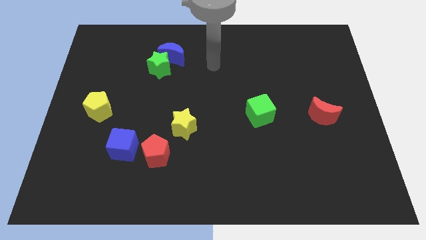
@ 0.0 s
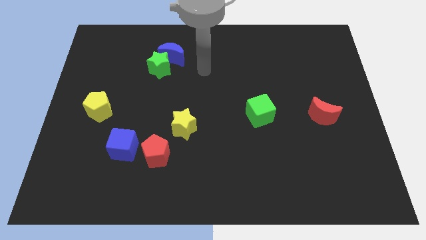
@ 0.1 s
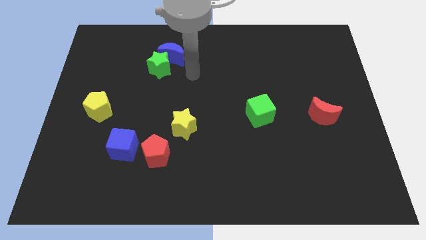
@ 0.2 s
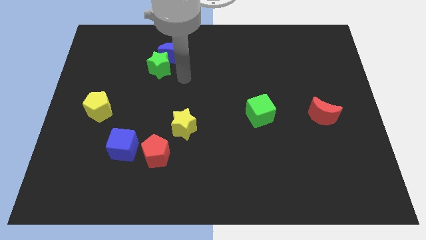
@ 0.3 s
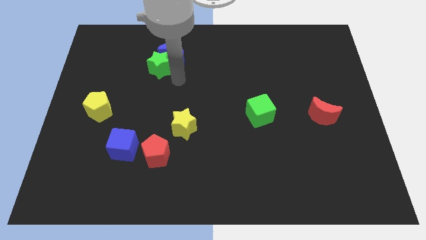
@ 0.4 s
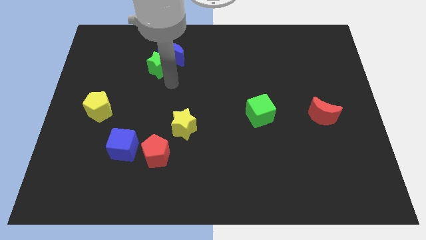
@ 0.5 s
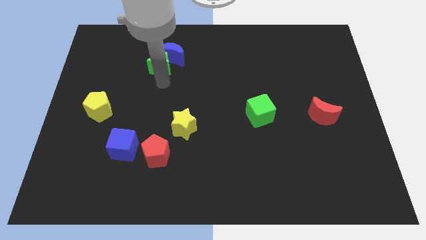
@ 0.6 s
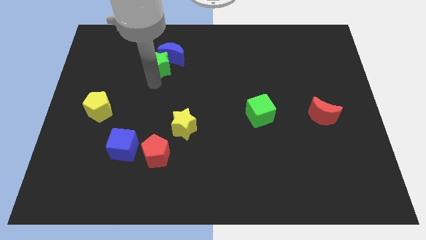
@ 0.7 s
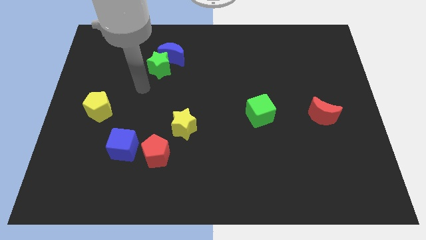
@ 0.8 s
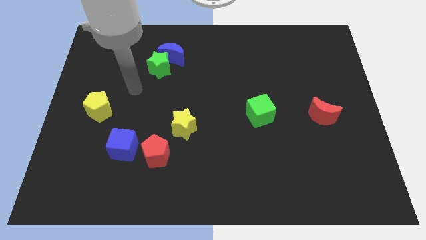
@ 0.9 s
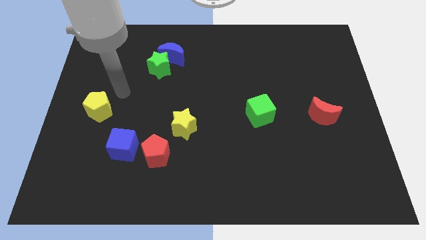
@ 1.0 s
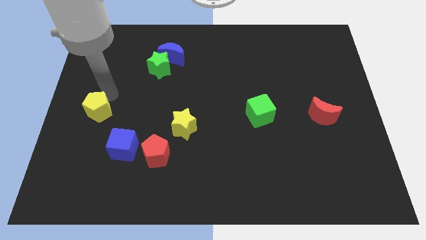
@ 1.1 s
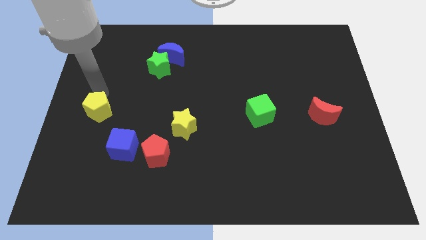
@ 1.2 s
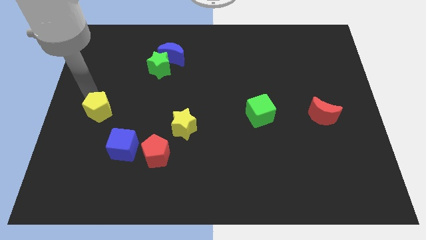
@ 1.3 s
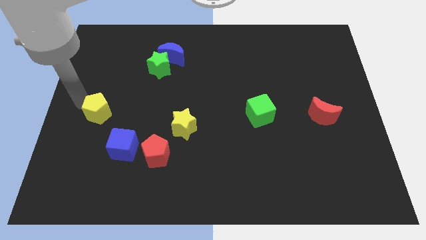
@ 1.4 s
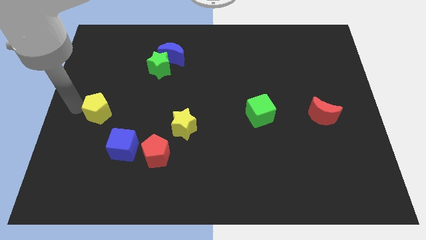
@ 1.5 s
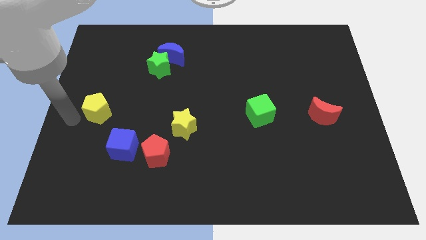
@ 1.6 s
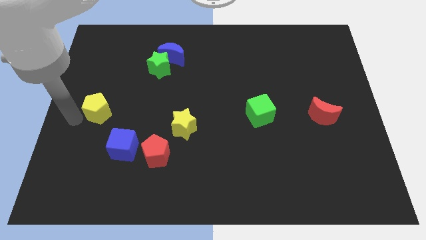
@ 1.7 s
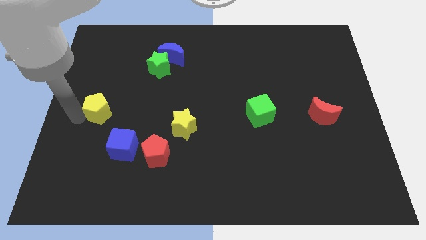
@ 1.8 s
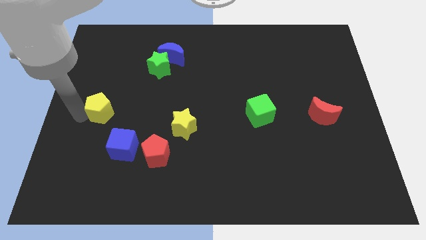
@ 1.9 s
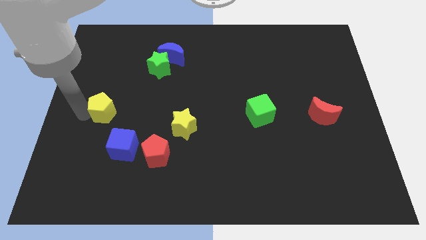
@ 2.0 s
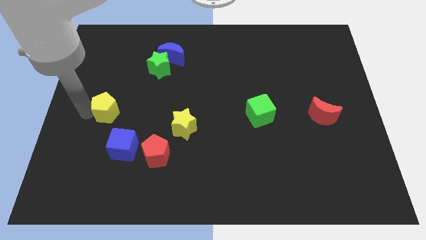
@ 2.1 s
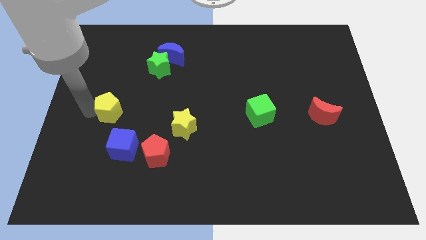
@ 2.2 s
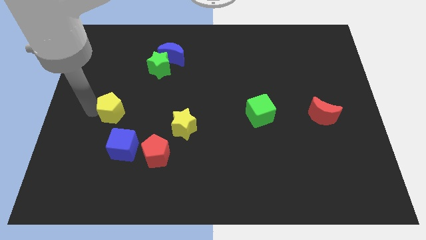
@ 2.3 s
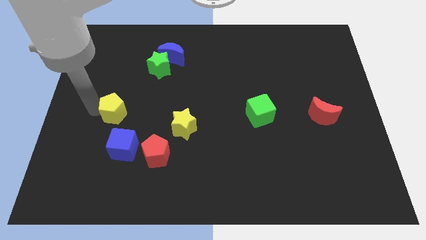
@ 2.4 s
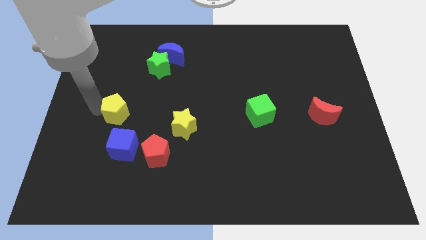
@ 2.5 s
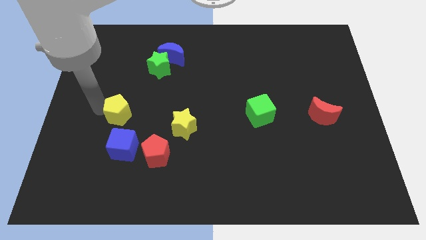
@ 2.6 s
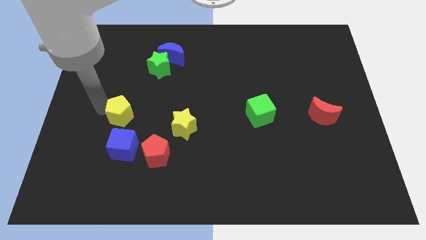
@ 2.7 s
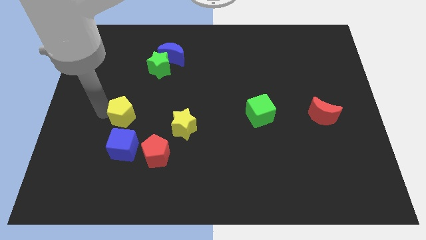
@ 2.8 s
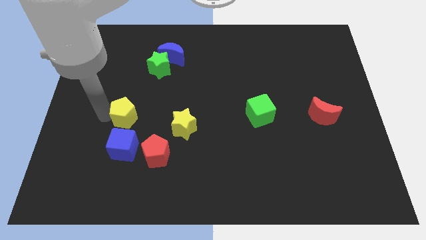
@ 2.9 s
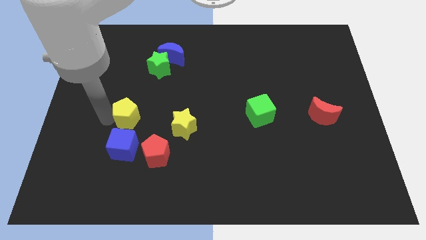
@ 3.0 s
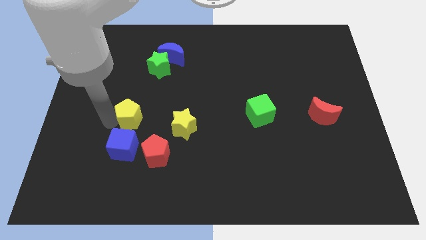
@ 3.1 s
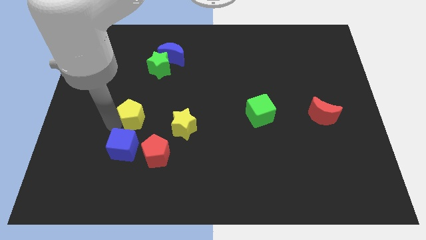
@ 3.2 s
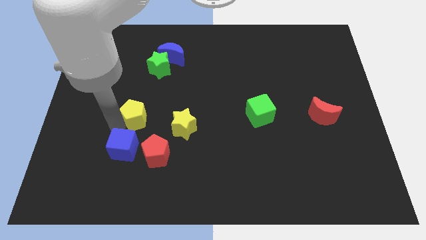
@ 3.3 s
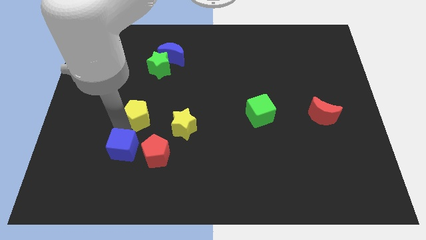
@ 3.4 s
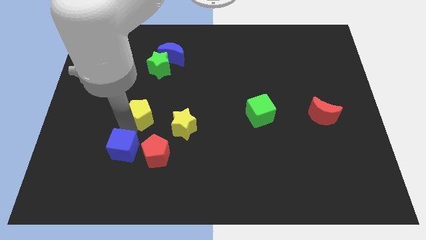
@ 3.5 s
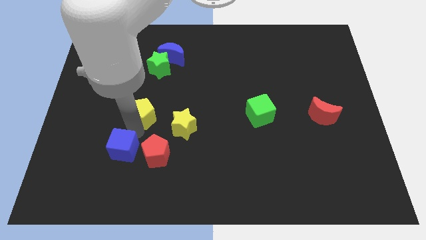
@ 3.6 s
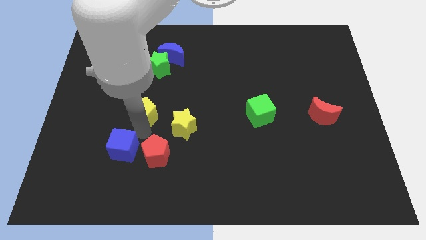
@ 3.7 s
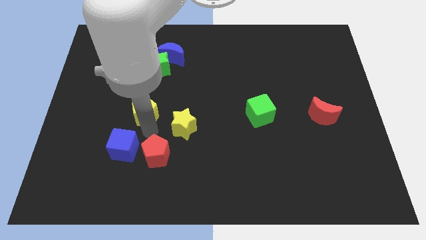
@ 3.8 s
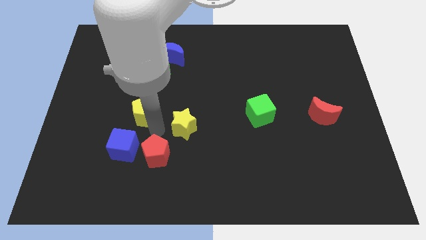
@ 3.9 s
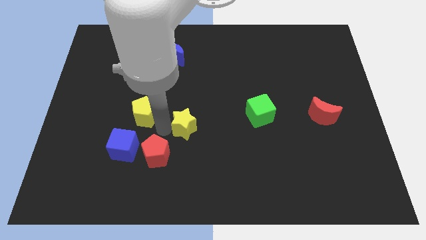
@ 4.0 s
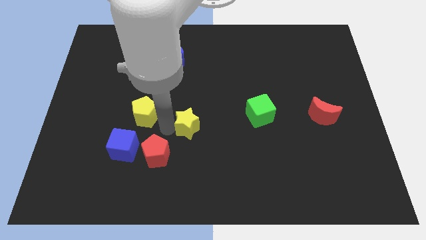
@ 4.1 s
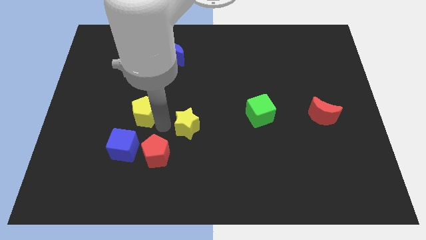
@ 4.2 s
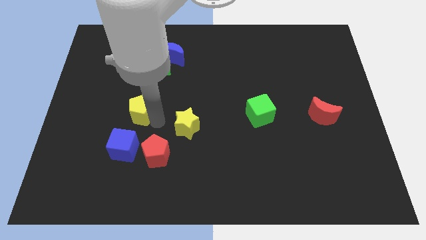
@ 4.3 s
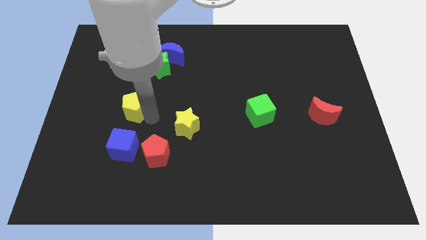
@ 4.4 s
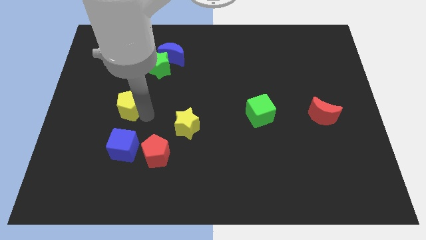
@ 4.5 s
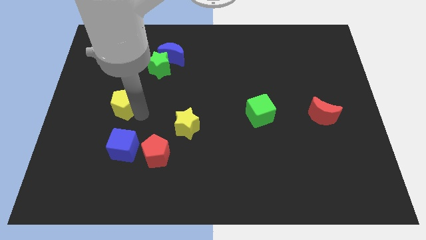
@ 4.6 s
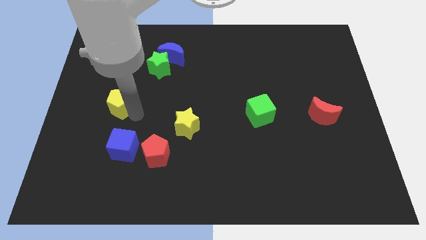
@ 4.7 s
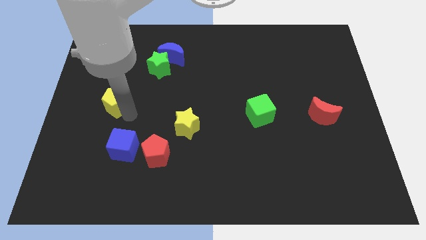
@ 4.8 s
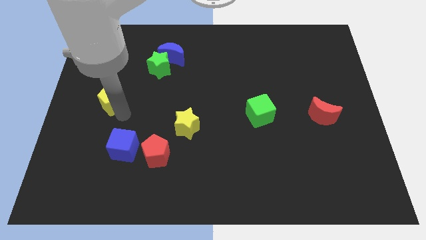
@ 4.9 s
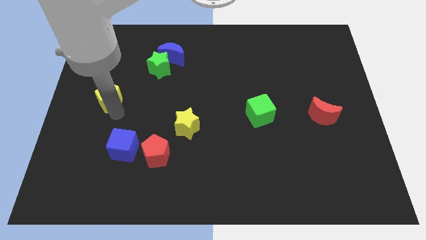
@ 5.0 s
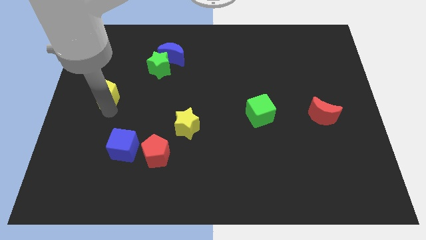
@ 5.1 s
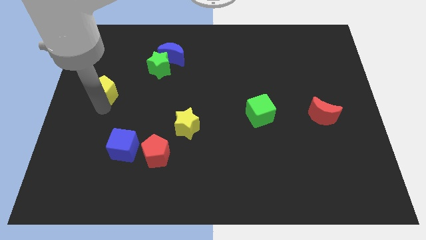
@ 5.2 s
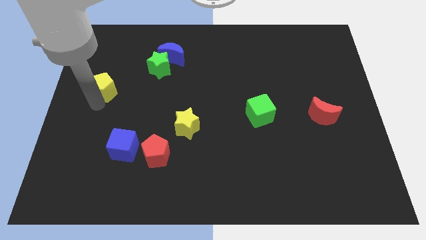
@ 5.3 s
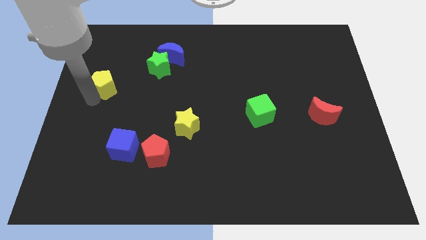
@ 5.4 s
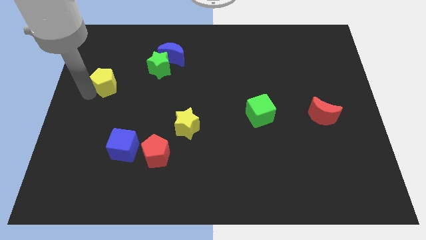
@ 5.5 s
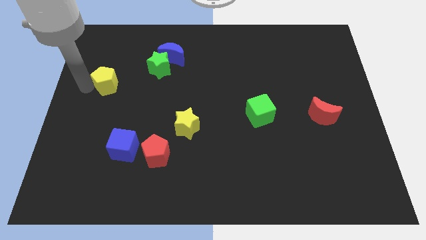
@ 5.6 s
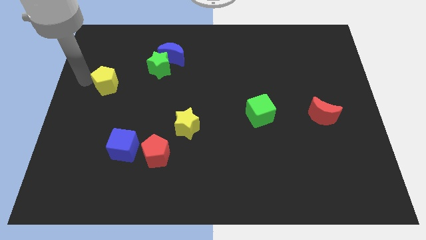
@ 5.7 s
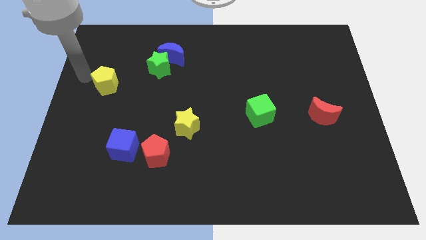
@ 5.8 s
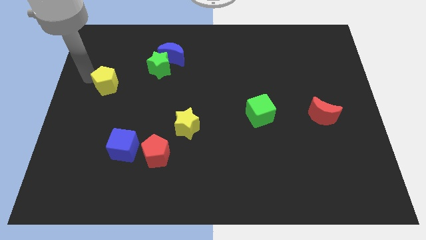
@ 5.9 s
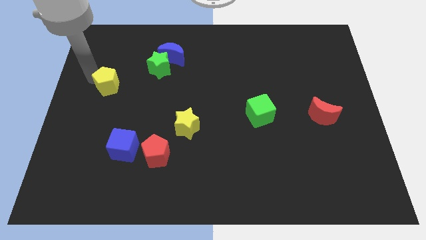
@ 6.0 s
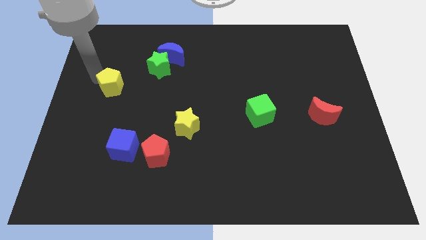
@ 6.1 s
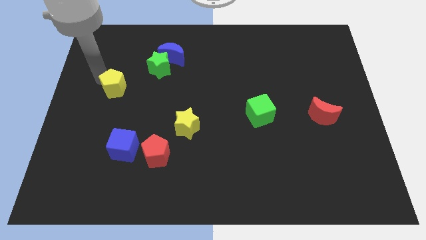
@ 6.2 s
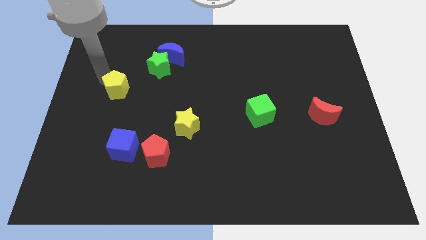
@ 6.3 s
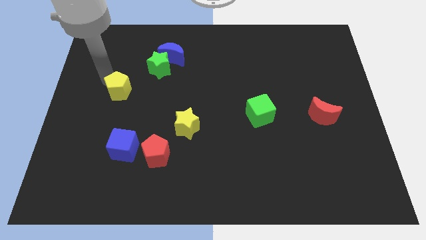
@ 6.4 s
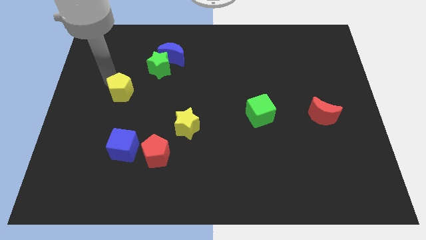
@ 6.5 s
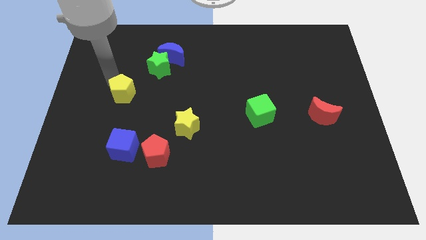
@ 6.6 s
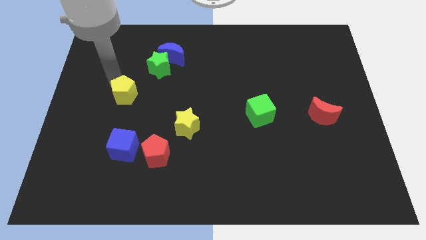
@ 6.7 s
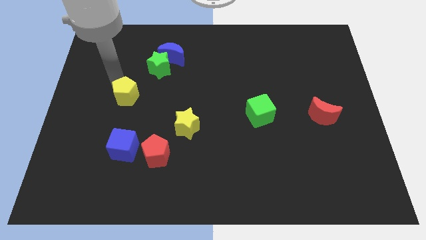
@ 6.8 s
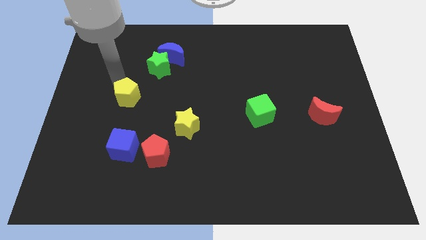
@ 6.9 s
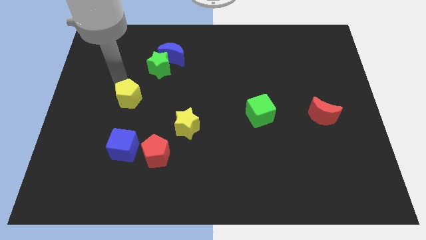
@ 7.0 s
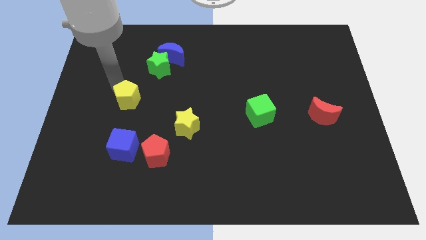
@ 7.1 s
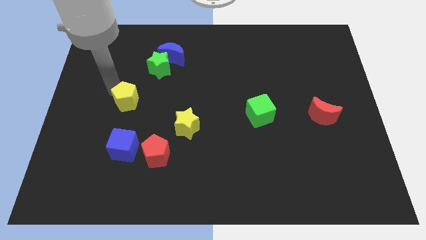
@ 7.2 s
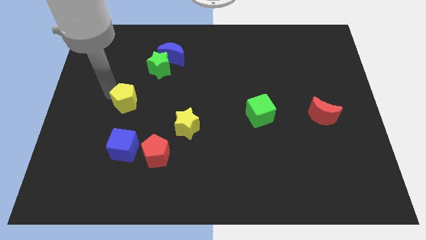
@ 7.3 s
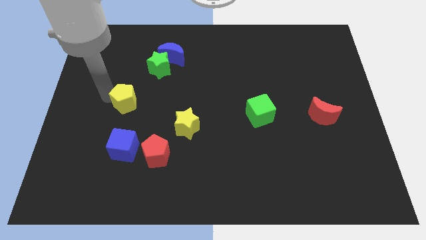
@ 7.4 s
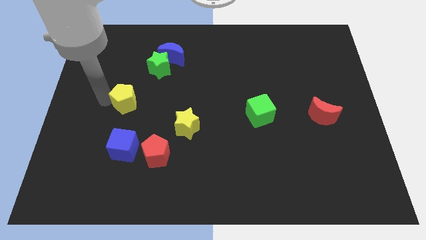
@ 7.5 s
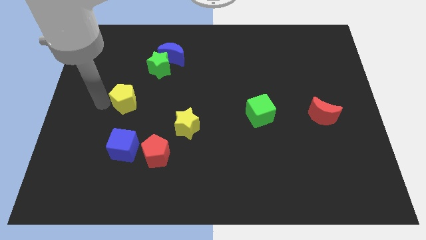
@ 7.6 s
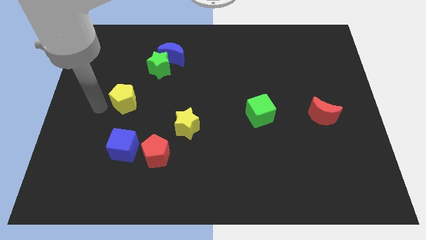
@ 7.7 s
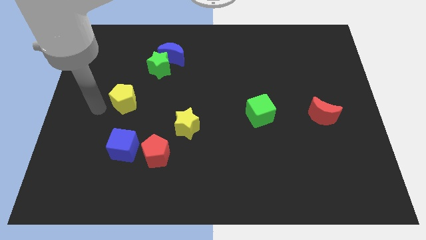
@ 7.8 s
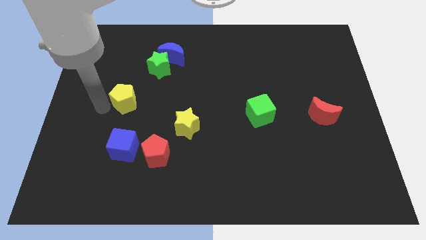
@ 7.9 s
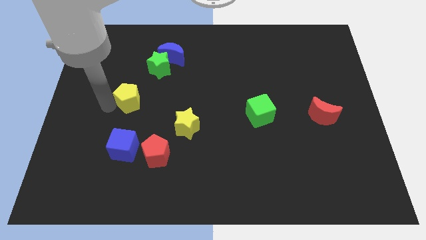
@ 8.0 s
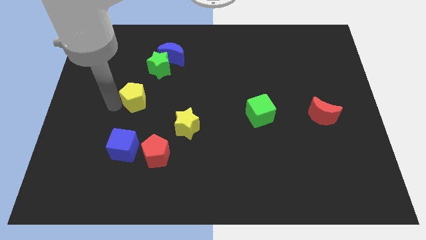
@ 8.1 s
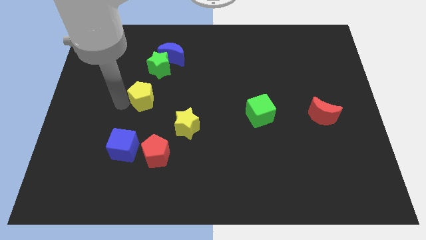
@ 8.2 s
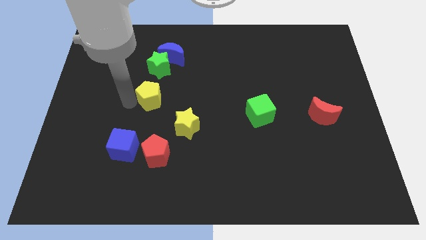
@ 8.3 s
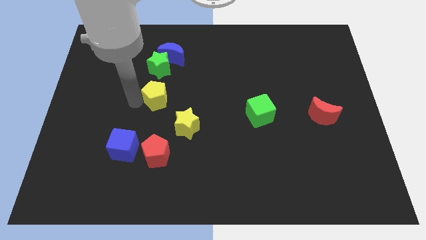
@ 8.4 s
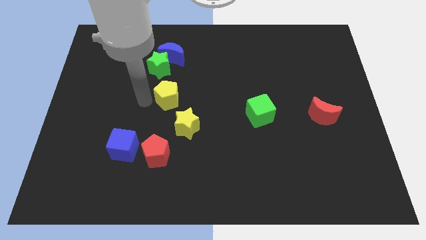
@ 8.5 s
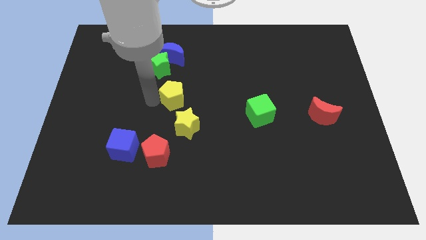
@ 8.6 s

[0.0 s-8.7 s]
move the yellow pentagon to the top of the yellow star
